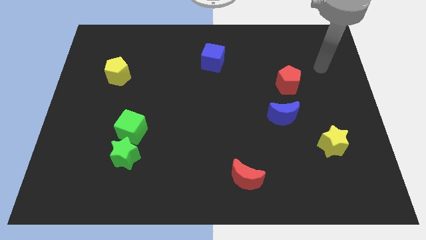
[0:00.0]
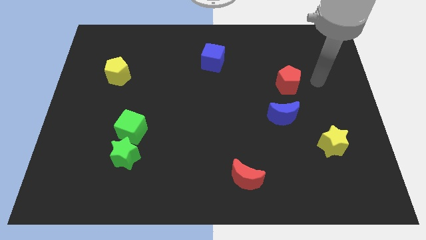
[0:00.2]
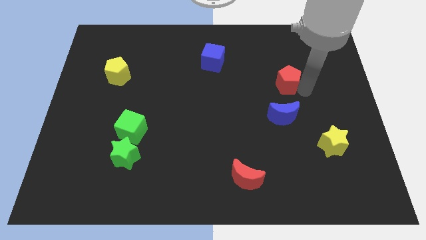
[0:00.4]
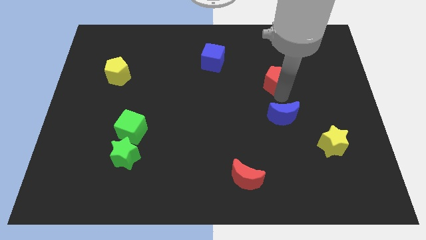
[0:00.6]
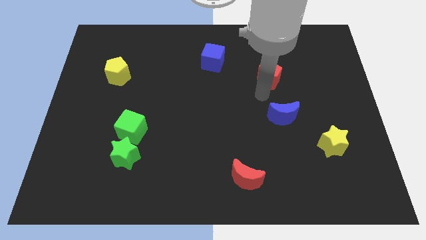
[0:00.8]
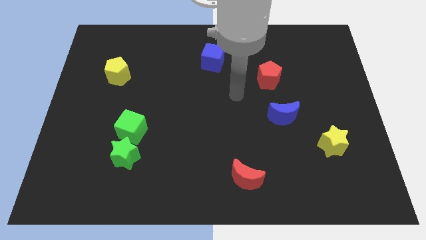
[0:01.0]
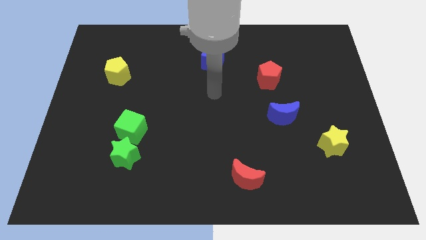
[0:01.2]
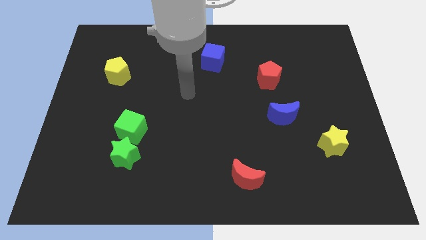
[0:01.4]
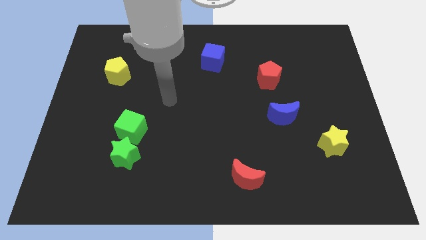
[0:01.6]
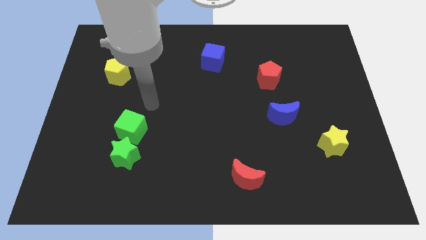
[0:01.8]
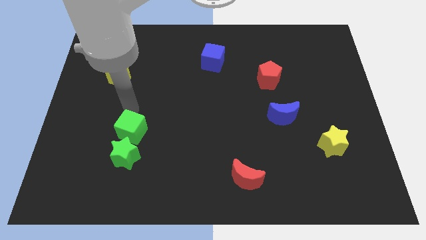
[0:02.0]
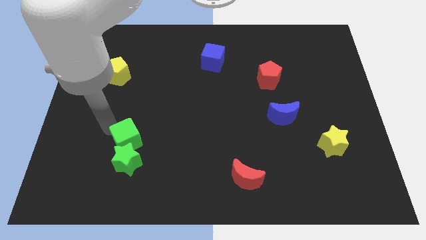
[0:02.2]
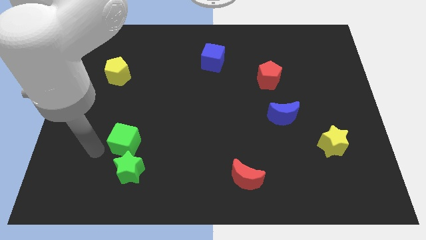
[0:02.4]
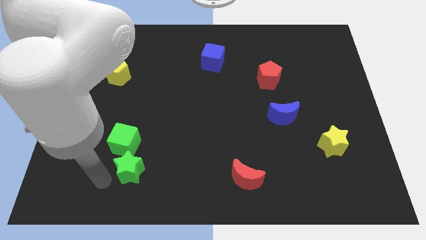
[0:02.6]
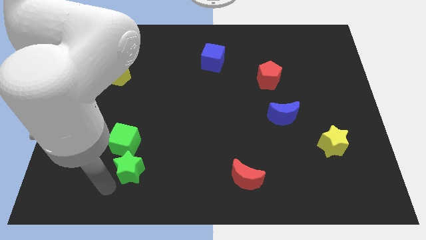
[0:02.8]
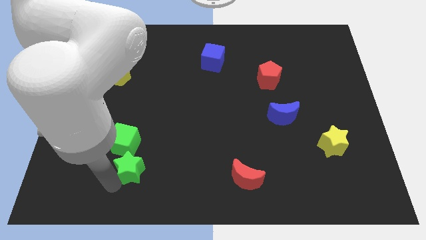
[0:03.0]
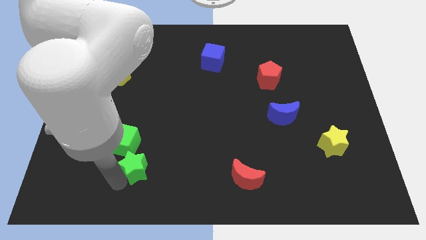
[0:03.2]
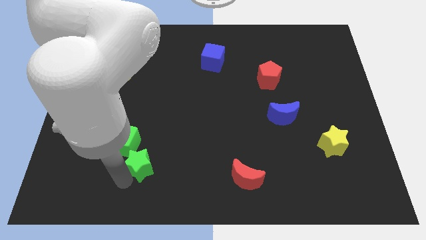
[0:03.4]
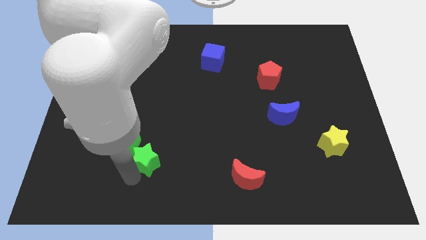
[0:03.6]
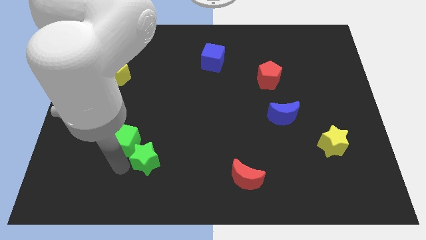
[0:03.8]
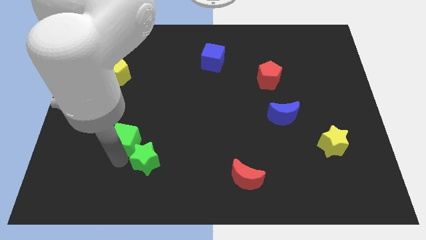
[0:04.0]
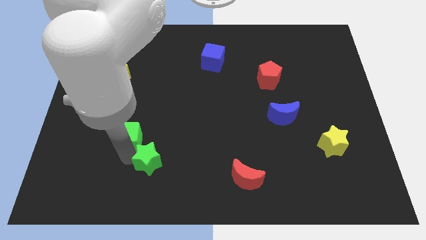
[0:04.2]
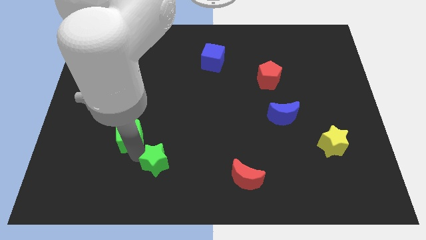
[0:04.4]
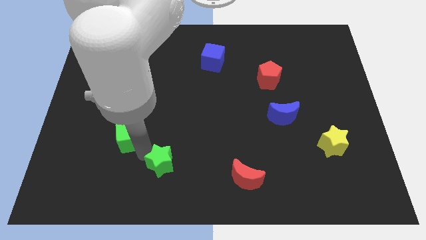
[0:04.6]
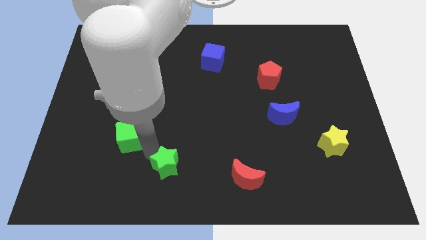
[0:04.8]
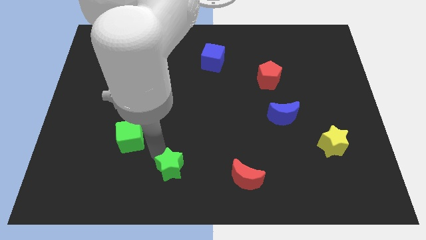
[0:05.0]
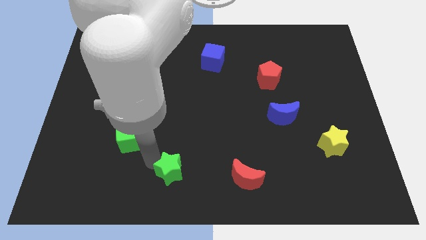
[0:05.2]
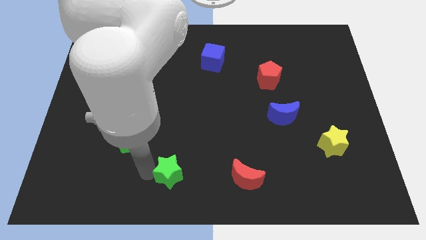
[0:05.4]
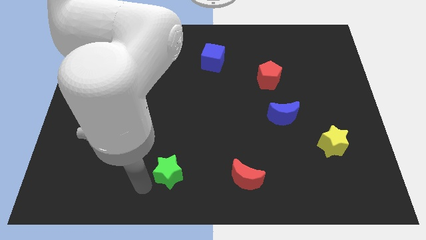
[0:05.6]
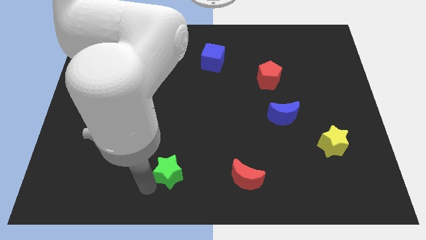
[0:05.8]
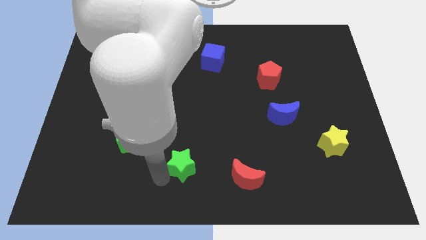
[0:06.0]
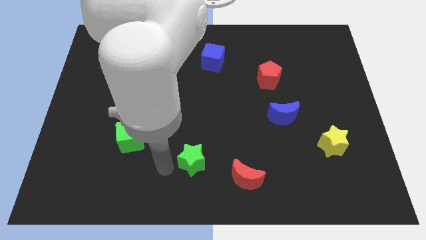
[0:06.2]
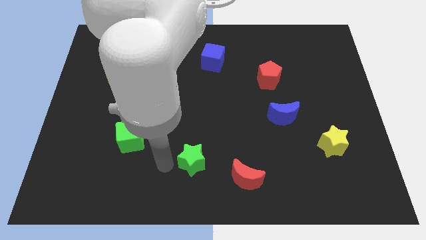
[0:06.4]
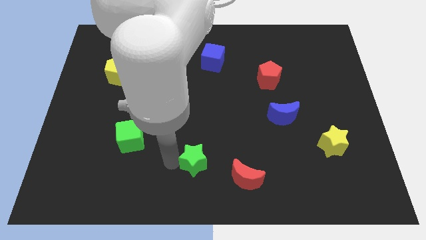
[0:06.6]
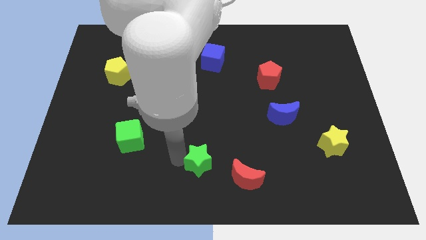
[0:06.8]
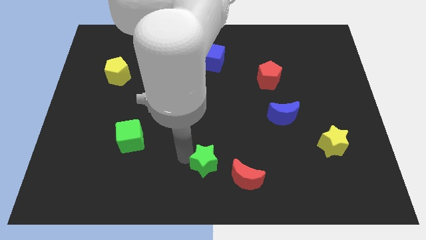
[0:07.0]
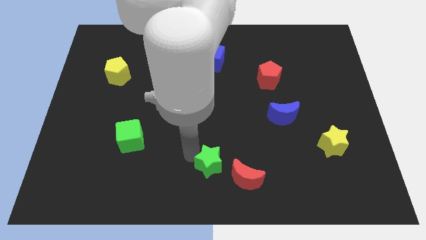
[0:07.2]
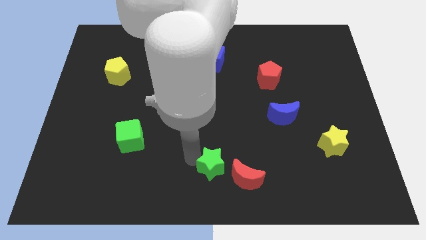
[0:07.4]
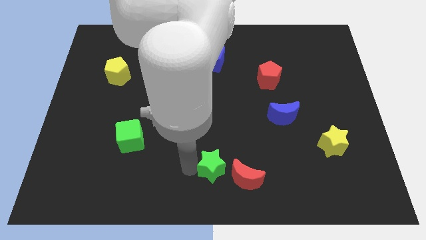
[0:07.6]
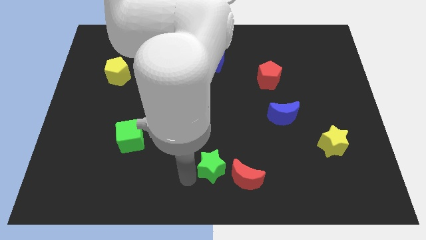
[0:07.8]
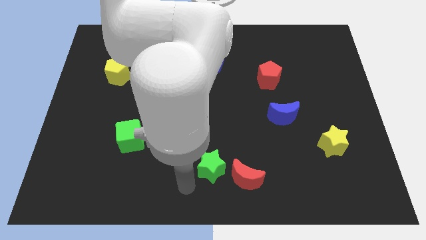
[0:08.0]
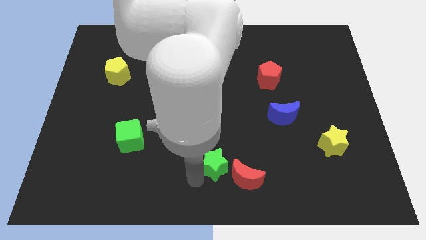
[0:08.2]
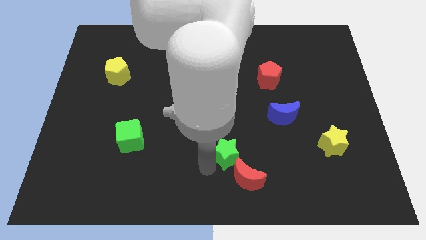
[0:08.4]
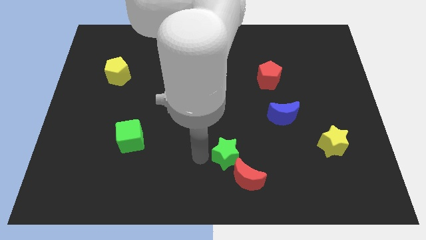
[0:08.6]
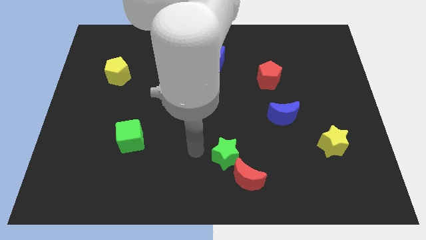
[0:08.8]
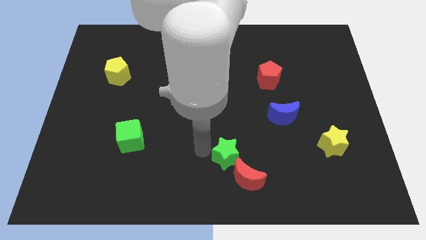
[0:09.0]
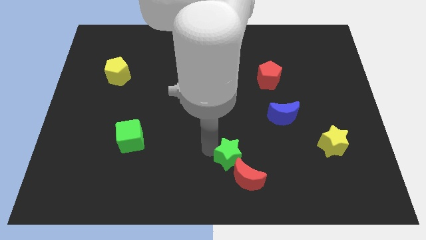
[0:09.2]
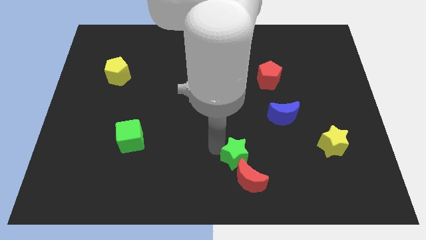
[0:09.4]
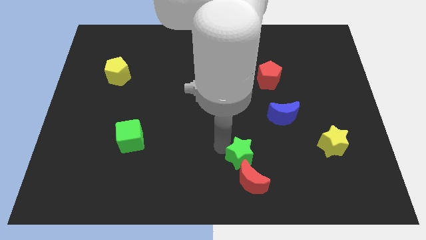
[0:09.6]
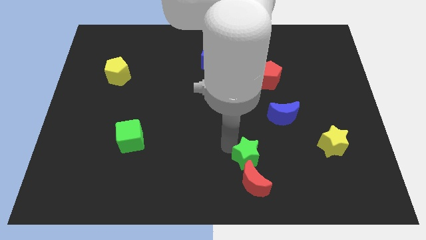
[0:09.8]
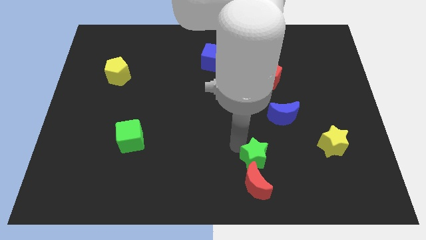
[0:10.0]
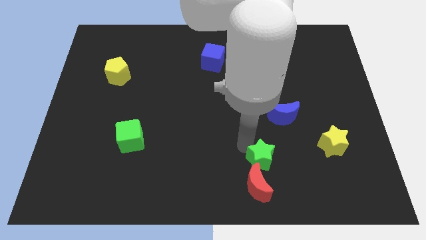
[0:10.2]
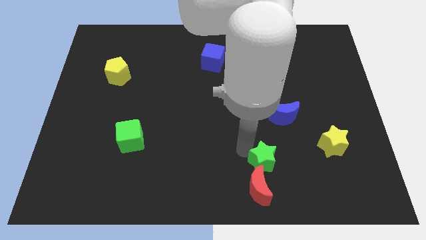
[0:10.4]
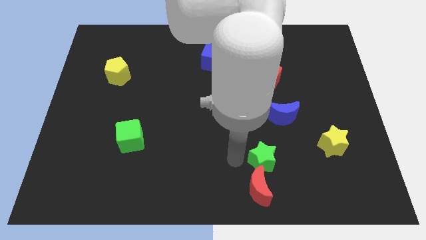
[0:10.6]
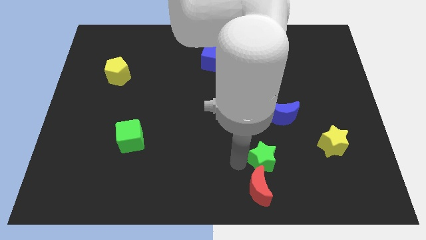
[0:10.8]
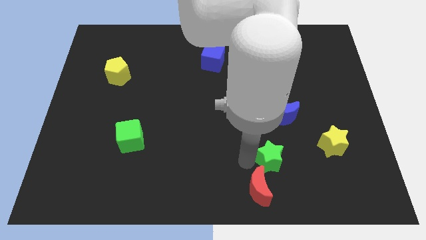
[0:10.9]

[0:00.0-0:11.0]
move the green star below the blue moon

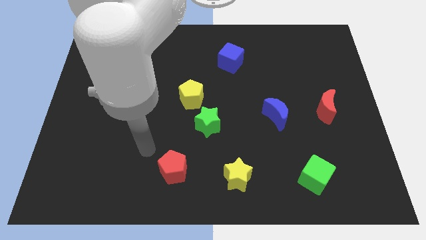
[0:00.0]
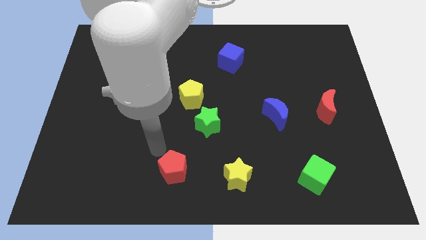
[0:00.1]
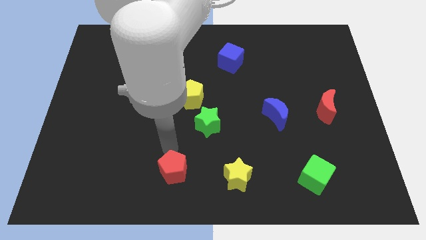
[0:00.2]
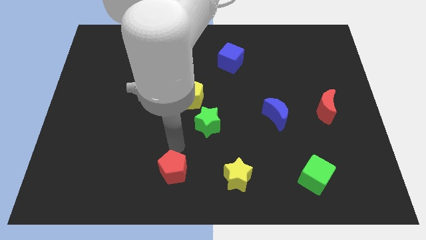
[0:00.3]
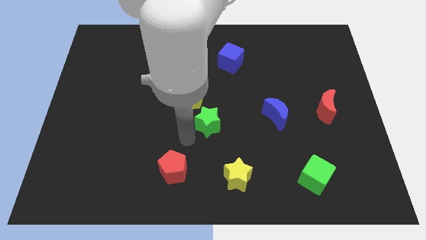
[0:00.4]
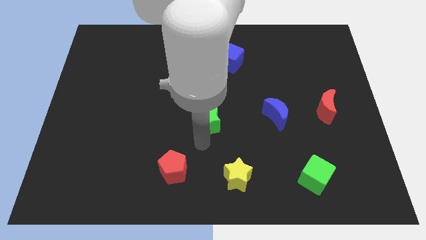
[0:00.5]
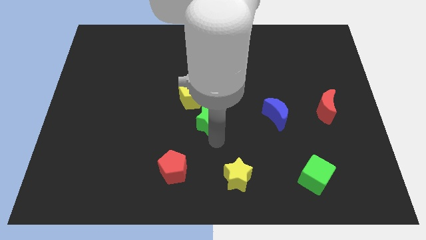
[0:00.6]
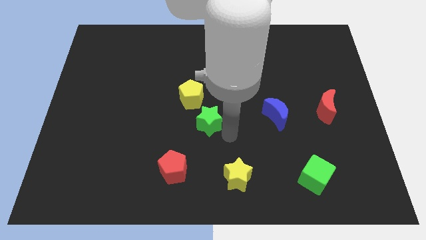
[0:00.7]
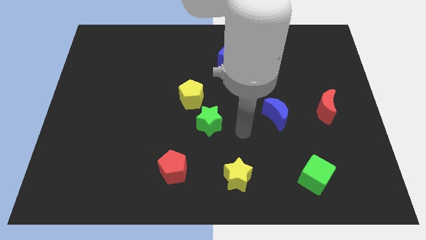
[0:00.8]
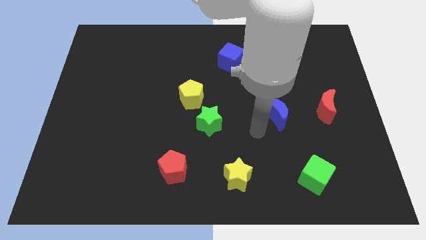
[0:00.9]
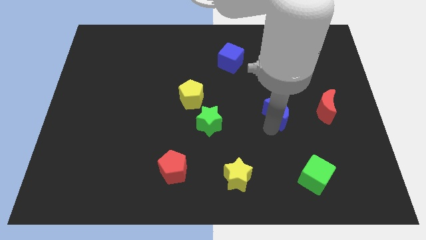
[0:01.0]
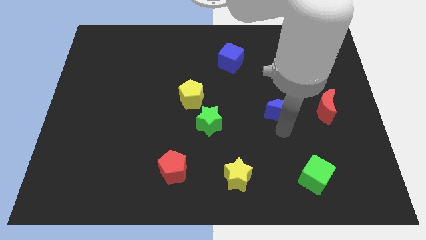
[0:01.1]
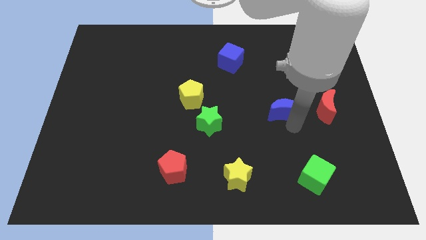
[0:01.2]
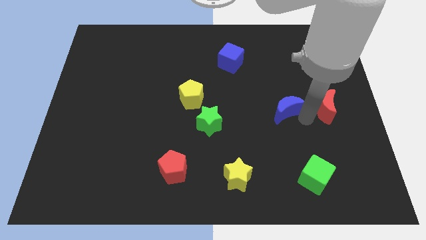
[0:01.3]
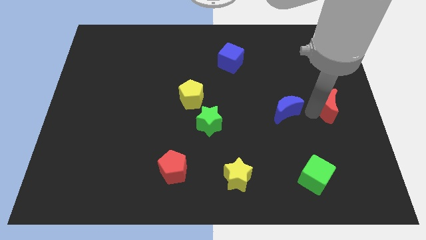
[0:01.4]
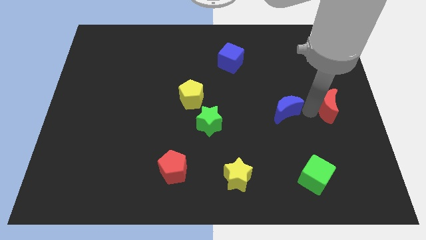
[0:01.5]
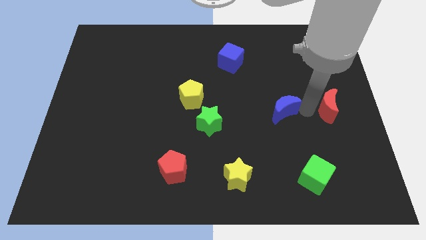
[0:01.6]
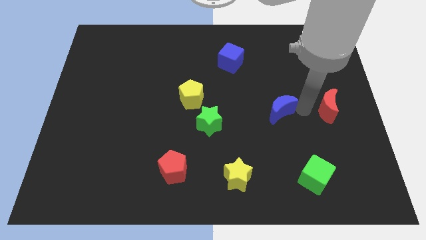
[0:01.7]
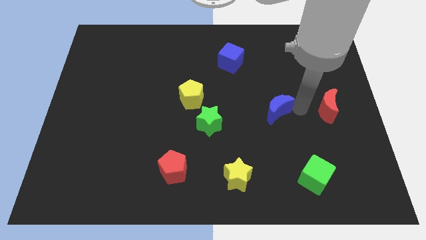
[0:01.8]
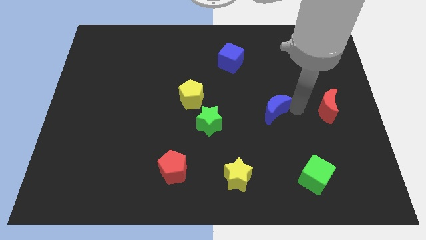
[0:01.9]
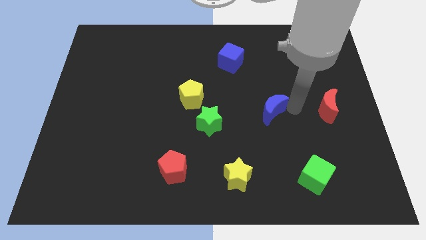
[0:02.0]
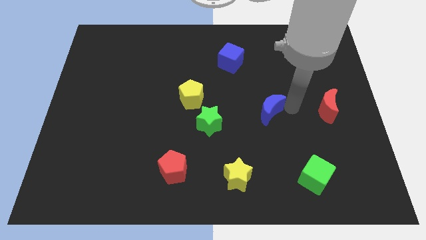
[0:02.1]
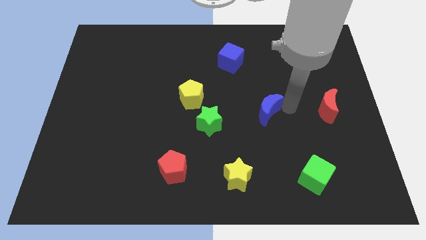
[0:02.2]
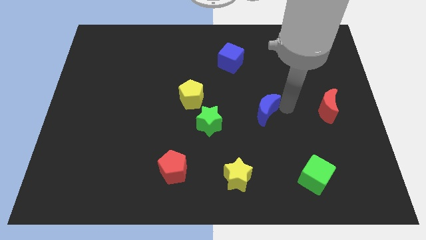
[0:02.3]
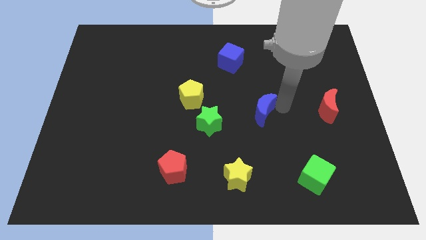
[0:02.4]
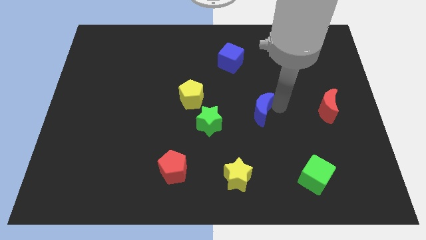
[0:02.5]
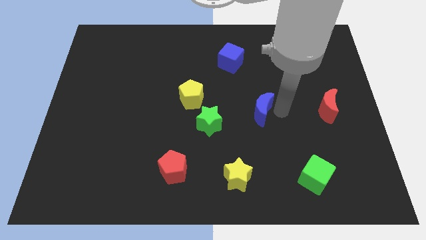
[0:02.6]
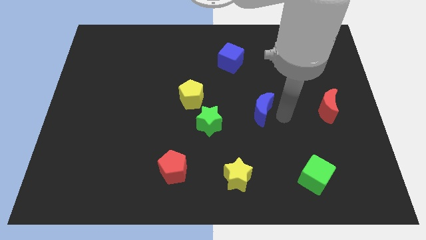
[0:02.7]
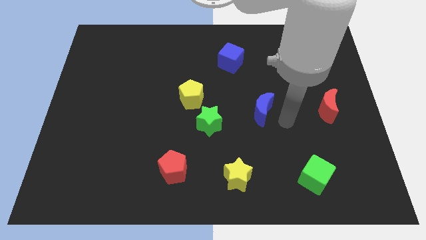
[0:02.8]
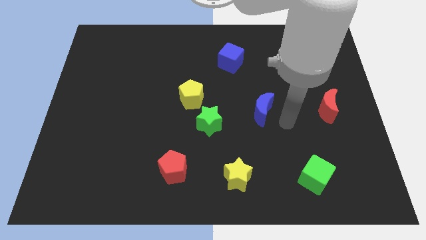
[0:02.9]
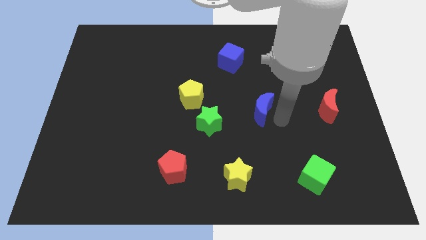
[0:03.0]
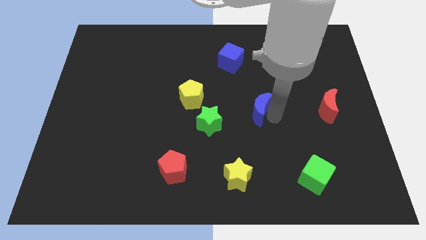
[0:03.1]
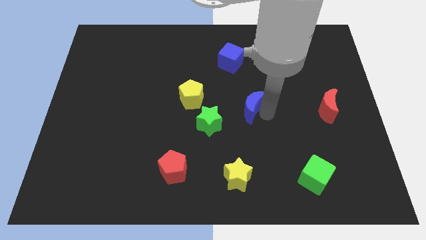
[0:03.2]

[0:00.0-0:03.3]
push the blue moon right of the yellow pentagon
